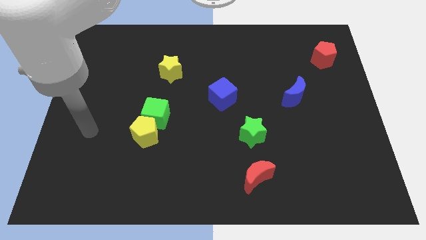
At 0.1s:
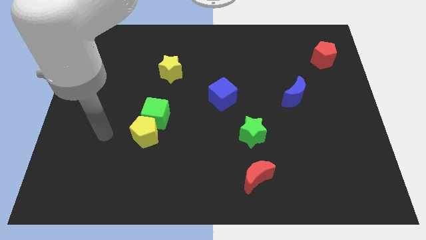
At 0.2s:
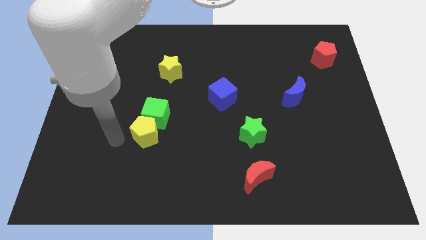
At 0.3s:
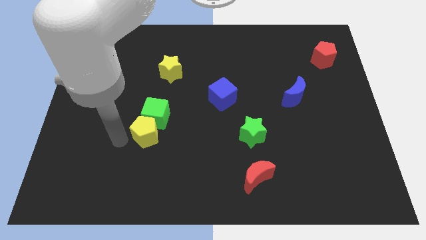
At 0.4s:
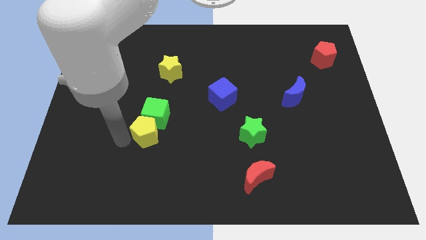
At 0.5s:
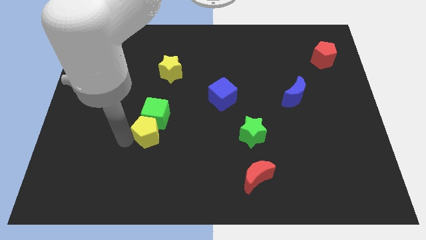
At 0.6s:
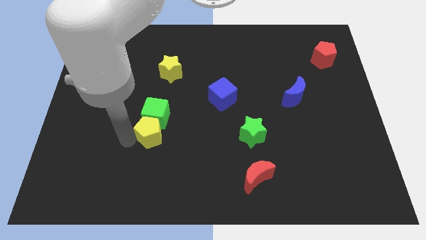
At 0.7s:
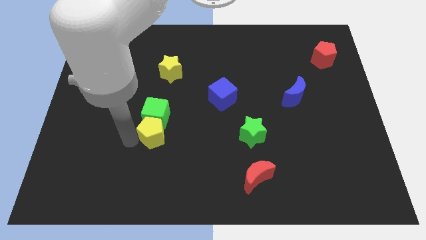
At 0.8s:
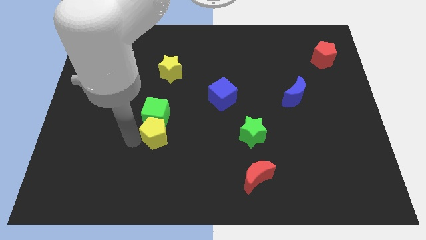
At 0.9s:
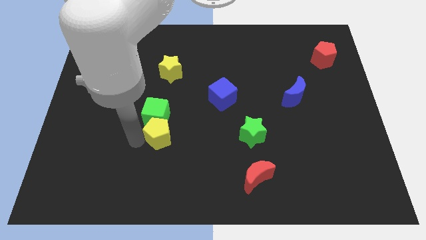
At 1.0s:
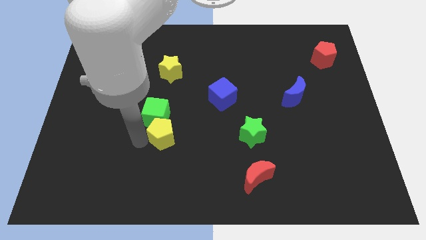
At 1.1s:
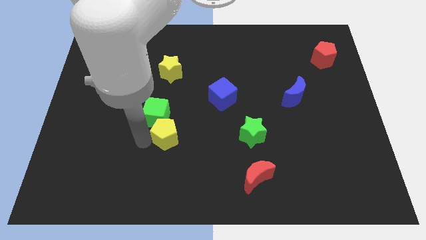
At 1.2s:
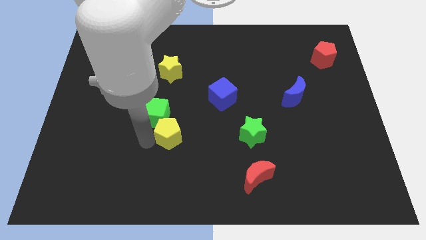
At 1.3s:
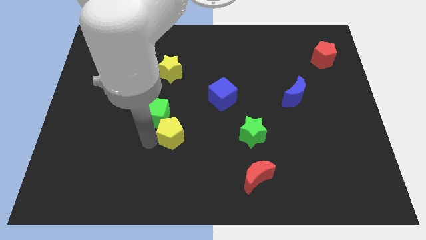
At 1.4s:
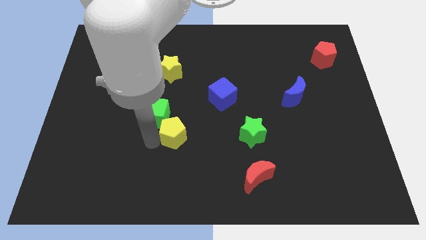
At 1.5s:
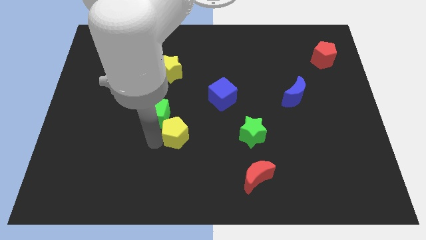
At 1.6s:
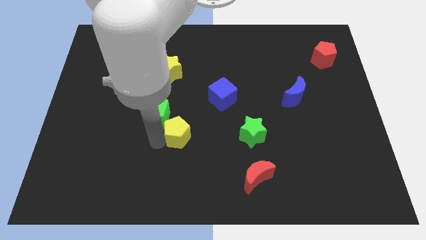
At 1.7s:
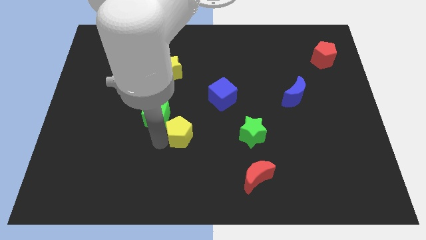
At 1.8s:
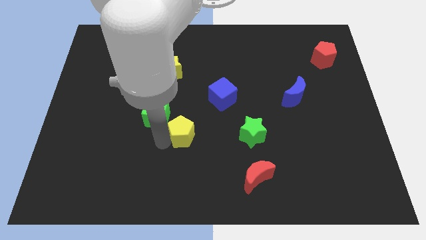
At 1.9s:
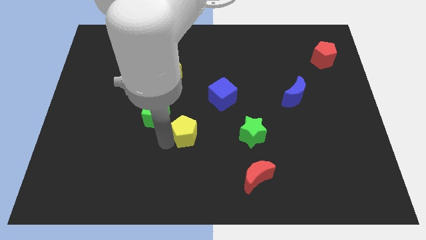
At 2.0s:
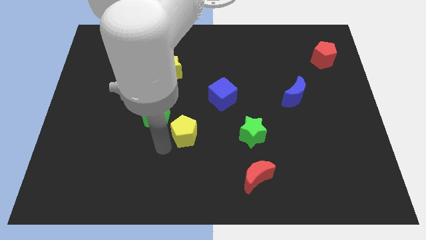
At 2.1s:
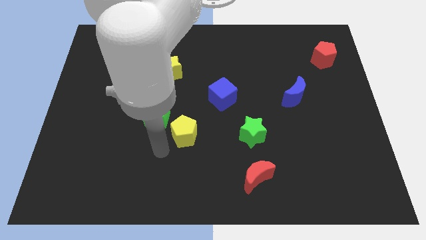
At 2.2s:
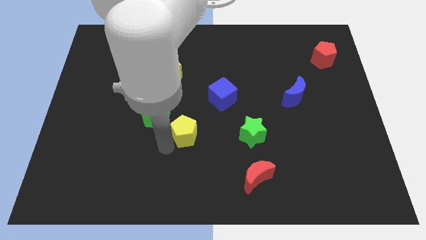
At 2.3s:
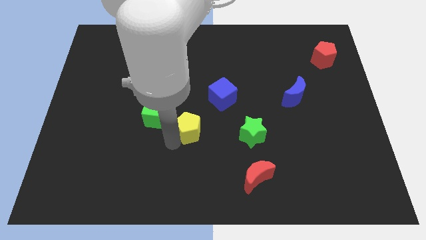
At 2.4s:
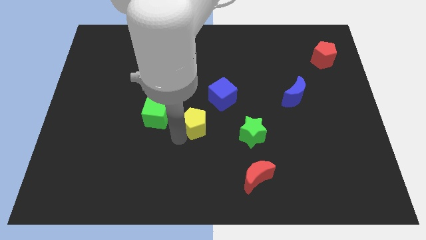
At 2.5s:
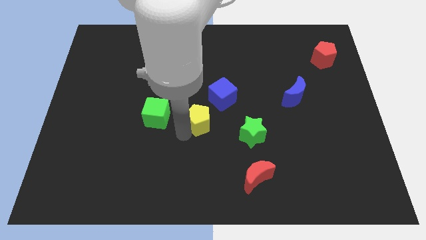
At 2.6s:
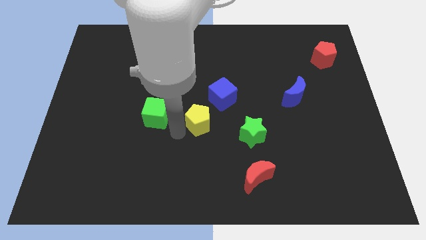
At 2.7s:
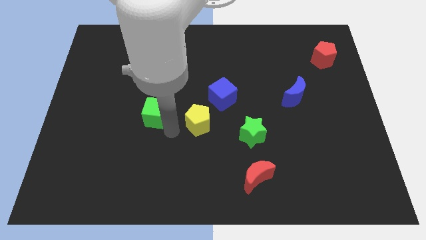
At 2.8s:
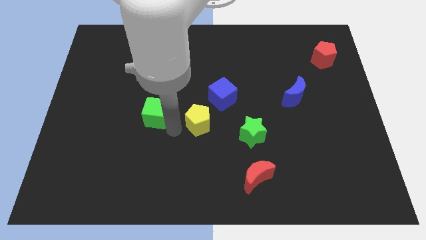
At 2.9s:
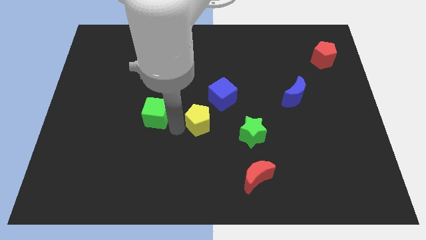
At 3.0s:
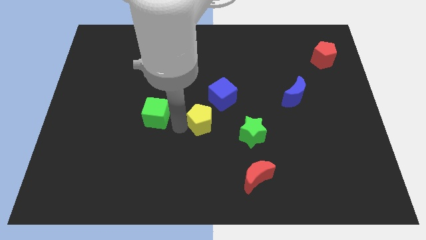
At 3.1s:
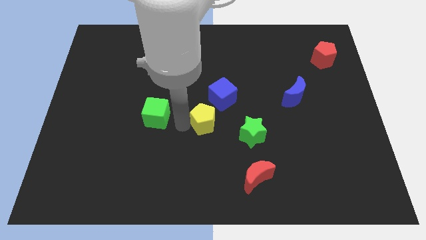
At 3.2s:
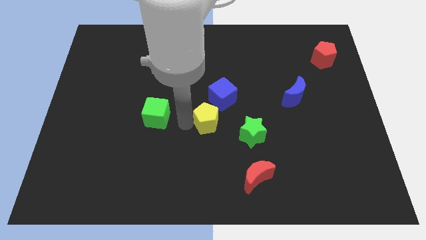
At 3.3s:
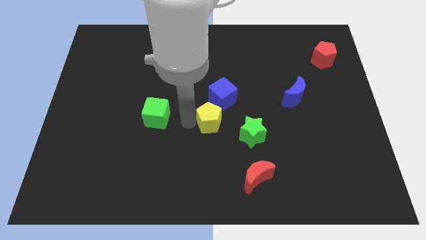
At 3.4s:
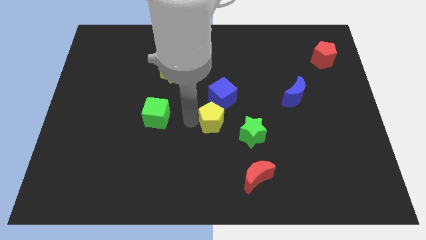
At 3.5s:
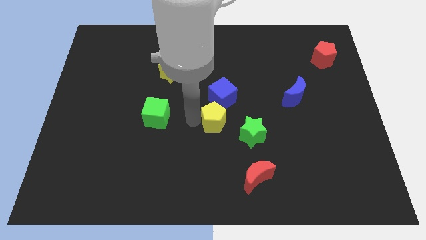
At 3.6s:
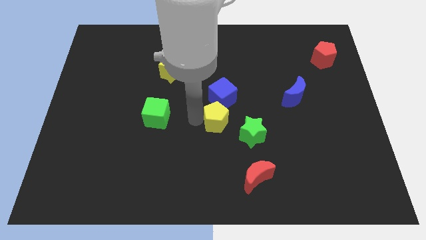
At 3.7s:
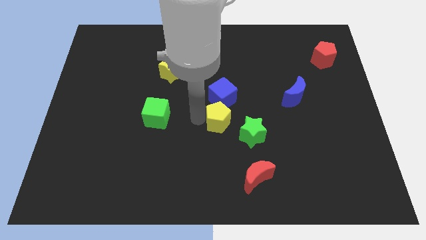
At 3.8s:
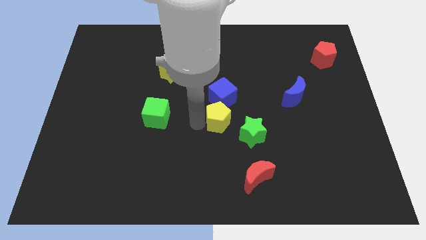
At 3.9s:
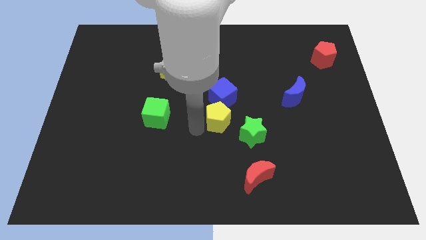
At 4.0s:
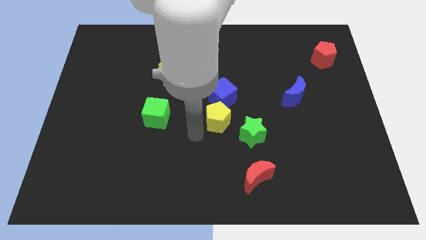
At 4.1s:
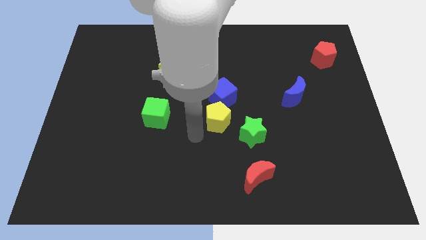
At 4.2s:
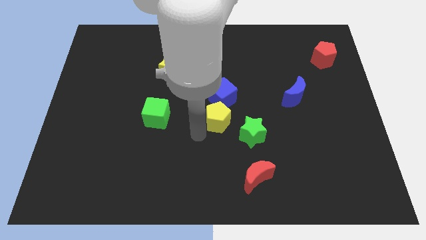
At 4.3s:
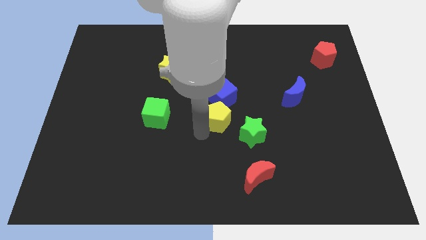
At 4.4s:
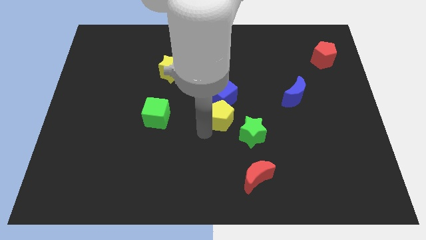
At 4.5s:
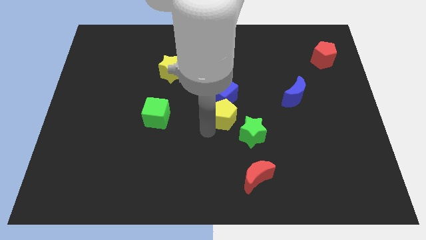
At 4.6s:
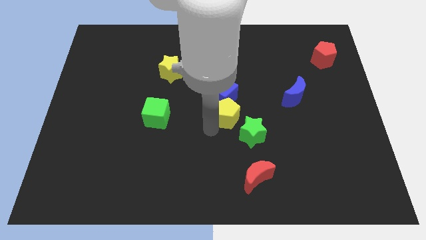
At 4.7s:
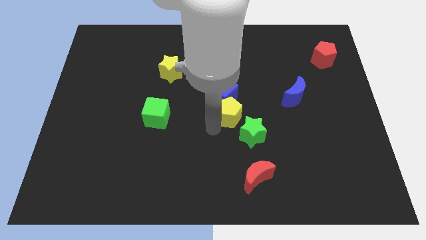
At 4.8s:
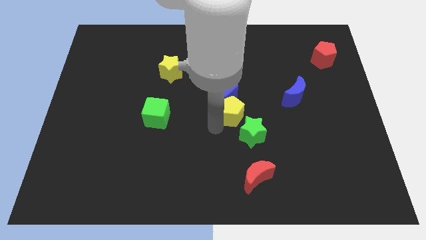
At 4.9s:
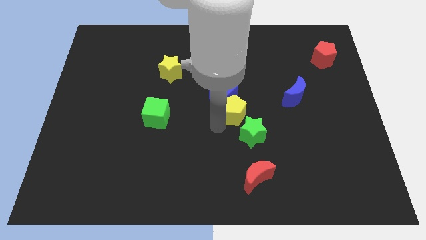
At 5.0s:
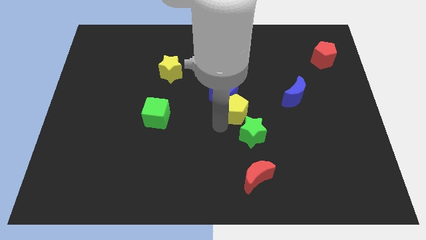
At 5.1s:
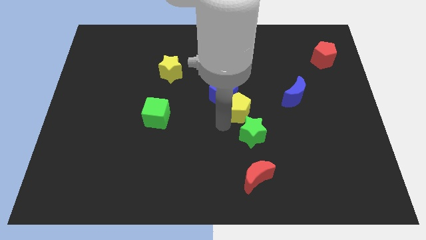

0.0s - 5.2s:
move the yellow pentagon to the left side of the blue moon

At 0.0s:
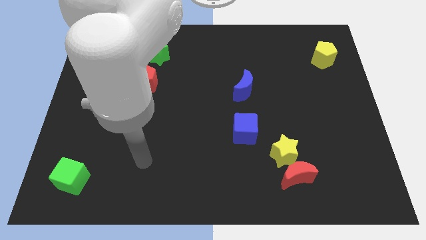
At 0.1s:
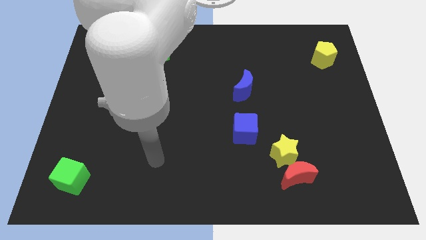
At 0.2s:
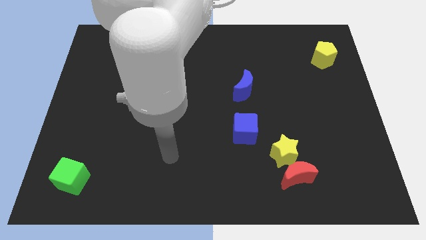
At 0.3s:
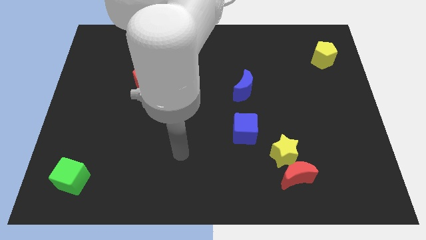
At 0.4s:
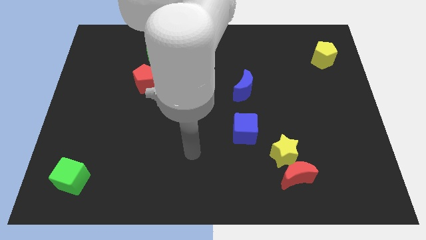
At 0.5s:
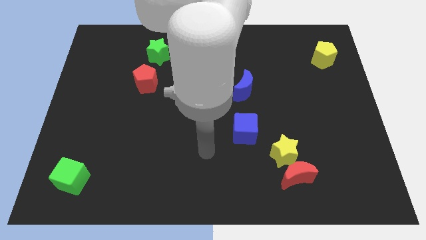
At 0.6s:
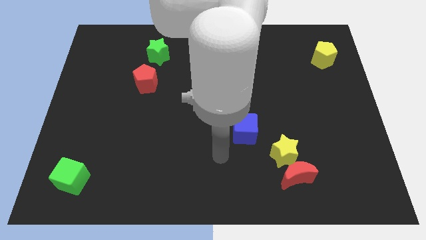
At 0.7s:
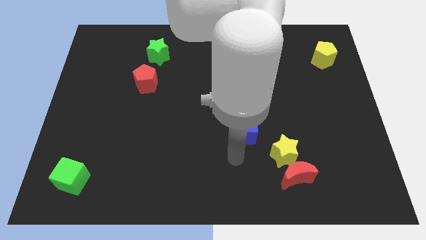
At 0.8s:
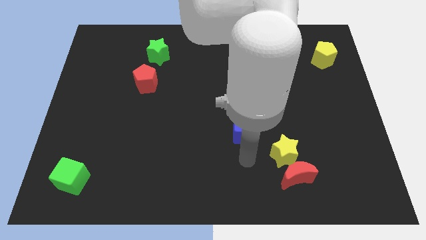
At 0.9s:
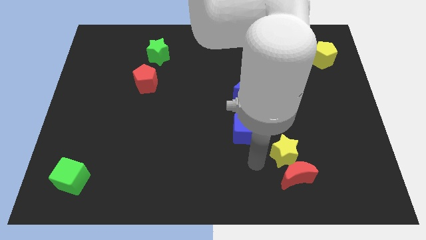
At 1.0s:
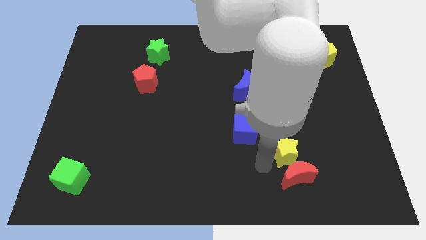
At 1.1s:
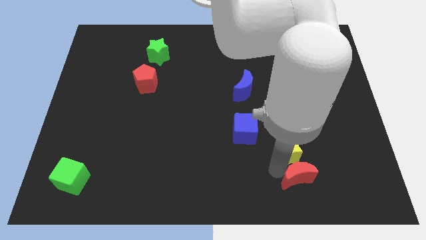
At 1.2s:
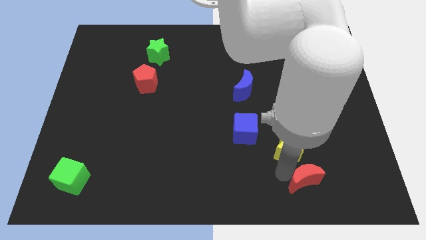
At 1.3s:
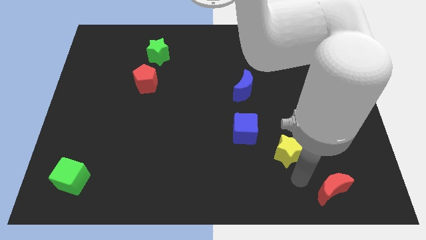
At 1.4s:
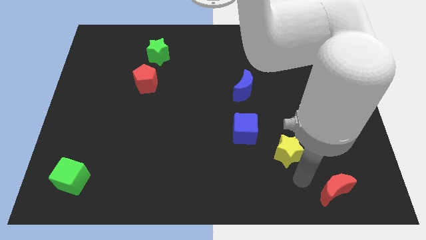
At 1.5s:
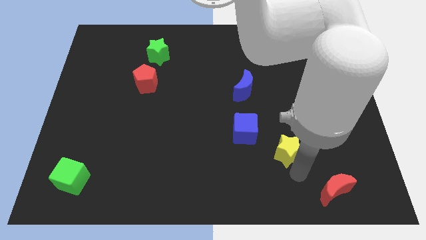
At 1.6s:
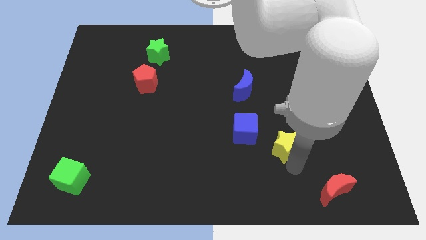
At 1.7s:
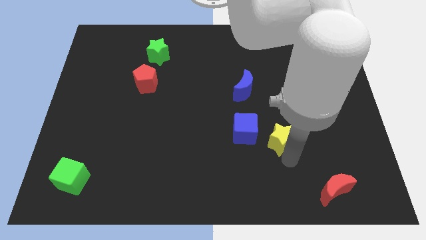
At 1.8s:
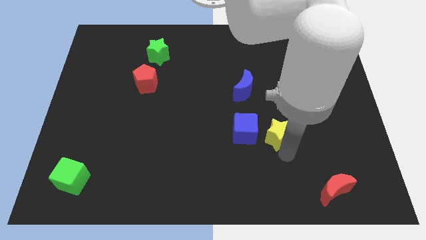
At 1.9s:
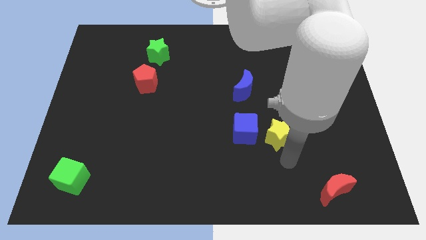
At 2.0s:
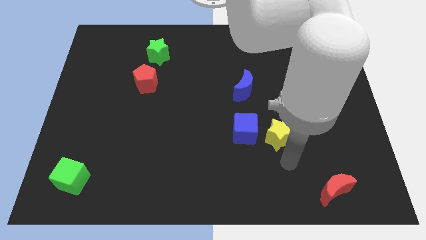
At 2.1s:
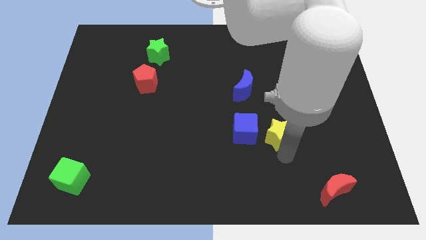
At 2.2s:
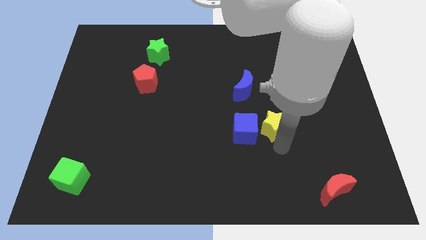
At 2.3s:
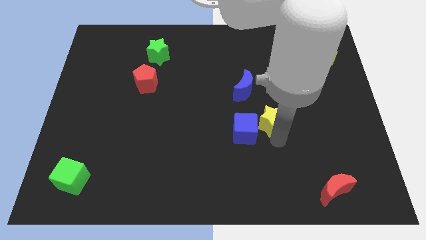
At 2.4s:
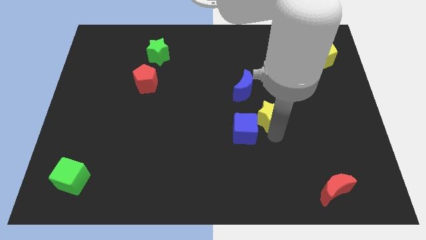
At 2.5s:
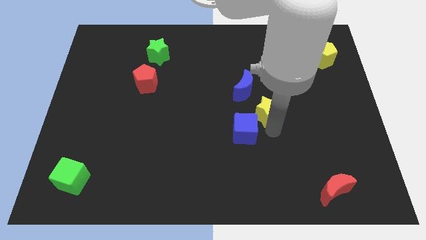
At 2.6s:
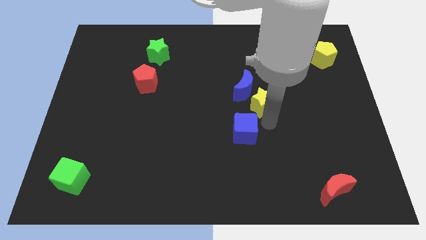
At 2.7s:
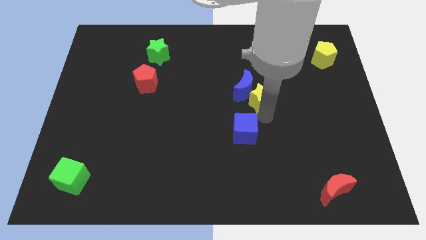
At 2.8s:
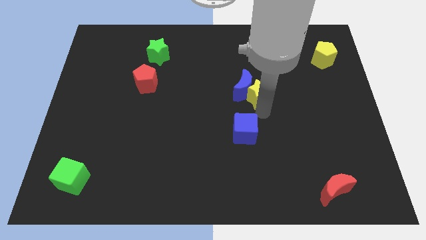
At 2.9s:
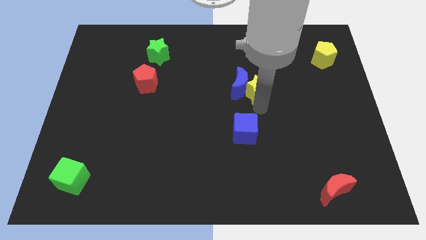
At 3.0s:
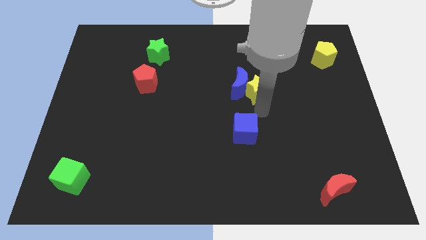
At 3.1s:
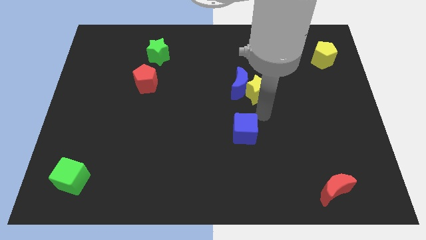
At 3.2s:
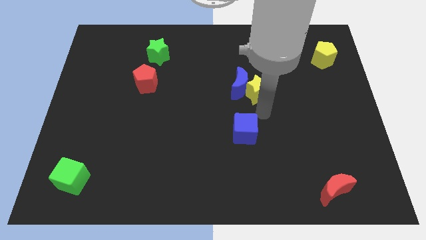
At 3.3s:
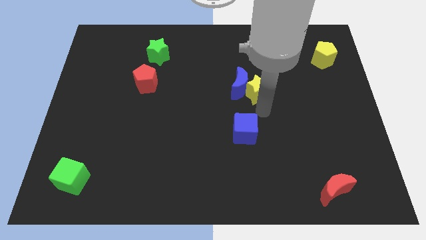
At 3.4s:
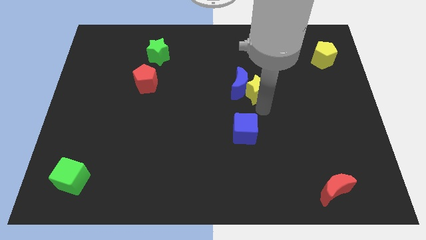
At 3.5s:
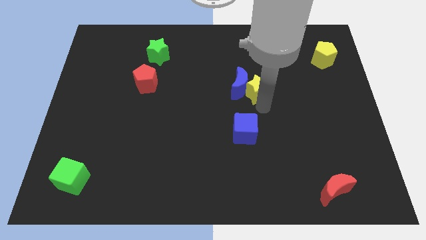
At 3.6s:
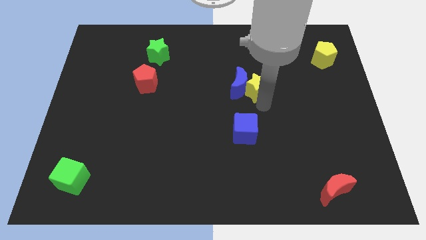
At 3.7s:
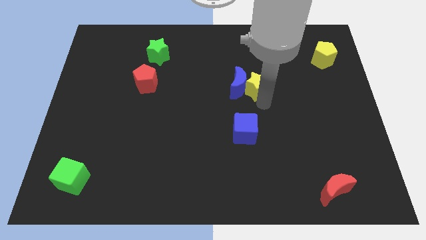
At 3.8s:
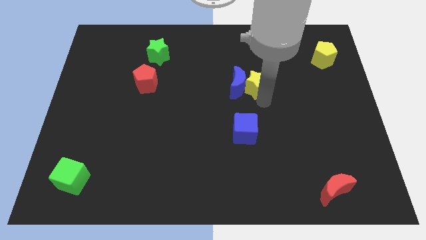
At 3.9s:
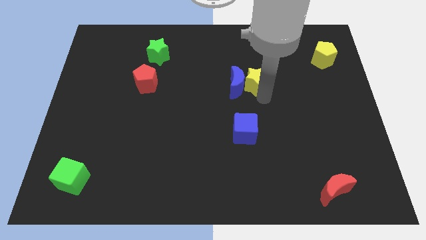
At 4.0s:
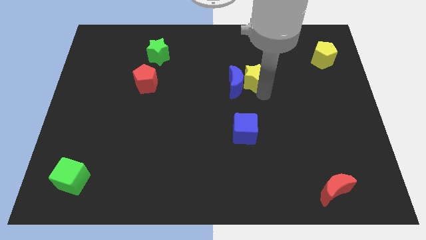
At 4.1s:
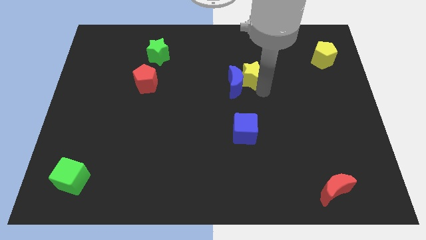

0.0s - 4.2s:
push the yellow star to the top of the blue moon
